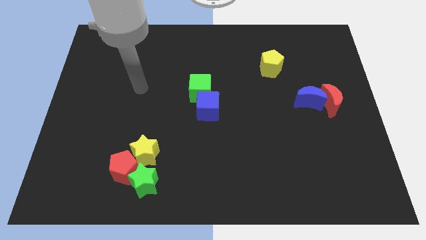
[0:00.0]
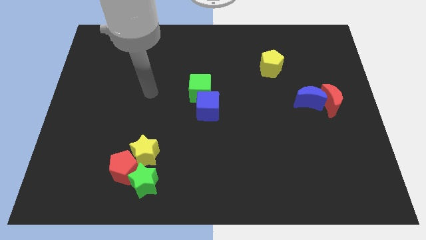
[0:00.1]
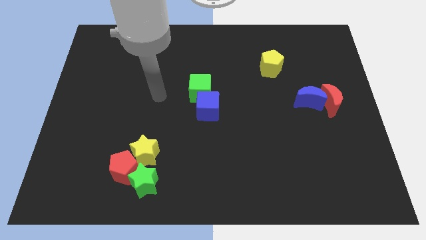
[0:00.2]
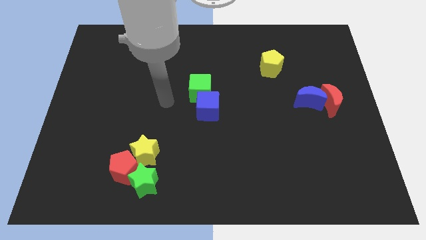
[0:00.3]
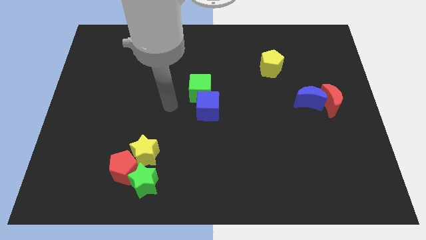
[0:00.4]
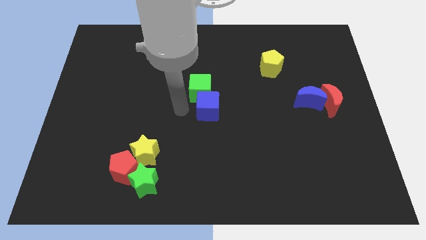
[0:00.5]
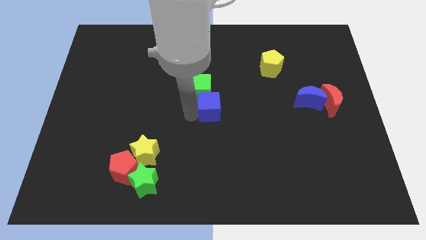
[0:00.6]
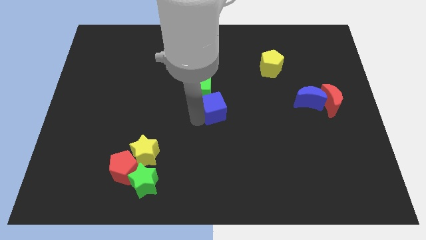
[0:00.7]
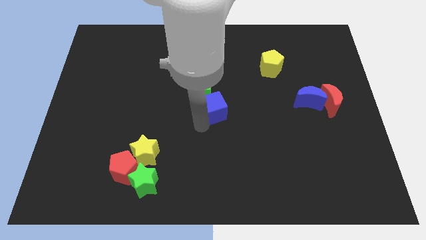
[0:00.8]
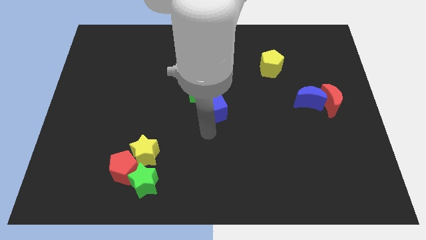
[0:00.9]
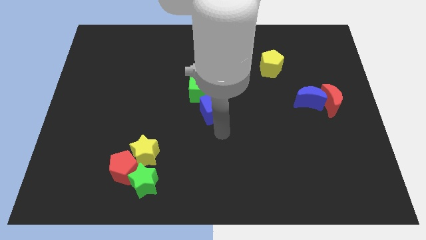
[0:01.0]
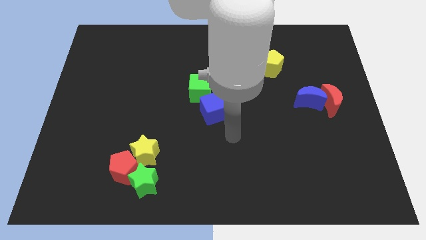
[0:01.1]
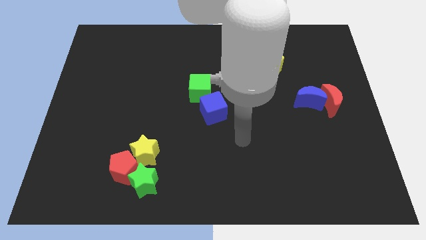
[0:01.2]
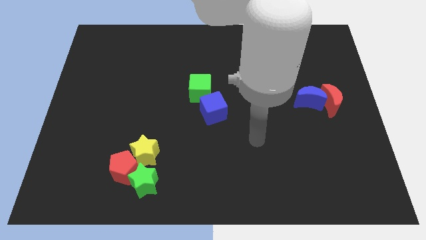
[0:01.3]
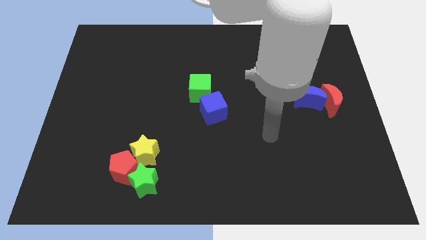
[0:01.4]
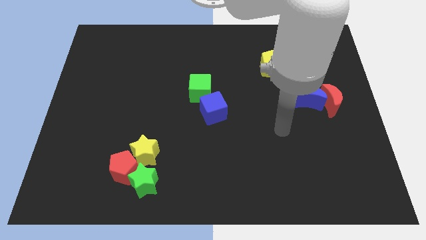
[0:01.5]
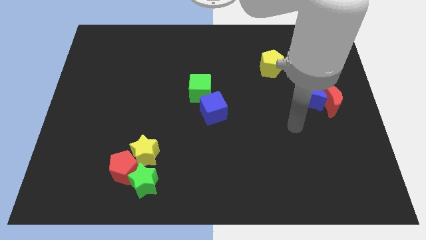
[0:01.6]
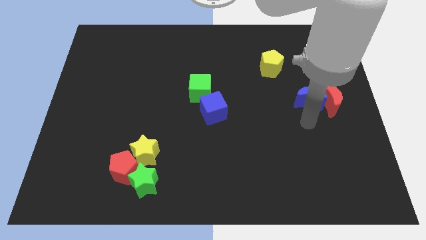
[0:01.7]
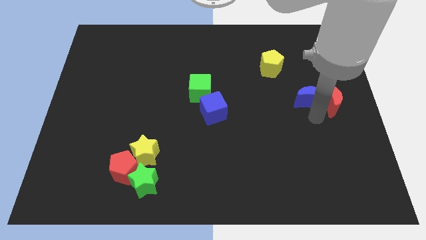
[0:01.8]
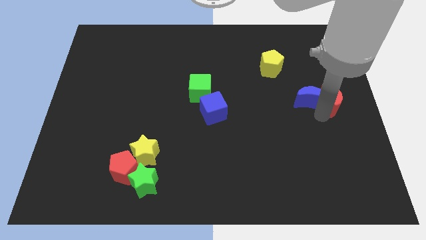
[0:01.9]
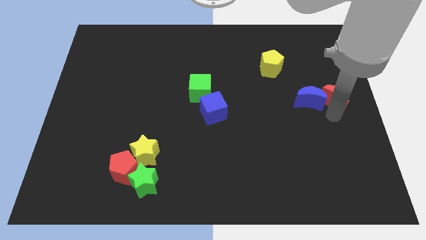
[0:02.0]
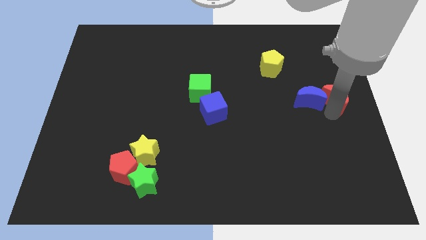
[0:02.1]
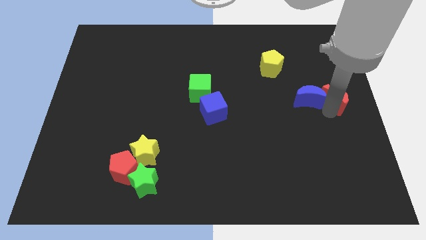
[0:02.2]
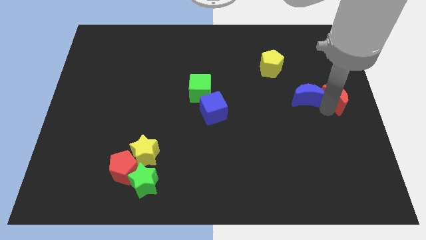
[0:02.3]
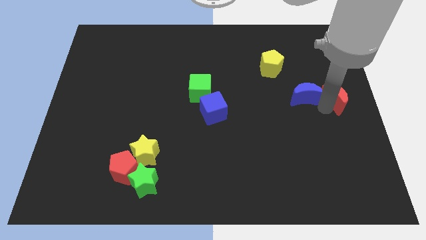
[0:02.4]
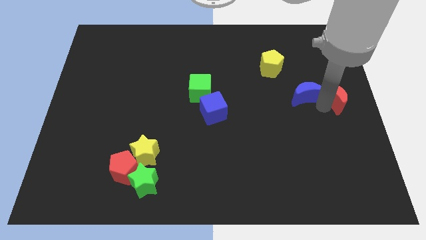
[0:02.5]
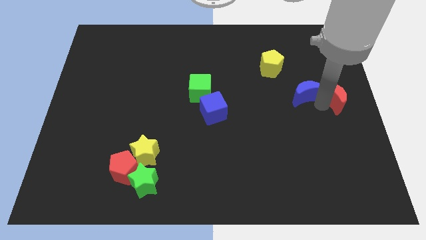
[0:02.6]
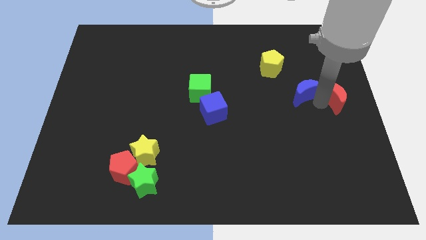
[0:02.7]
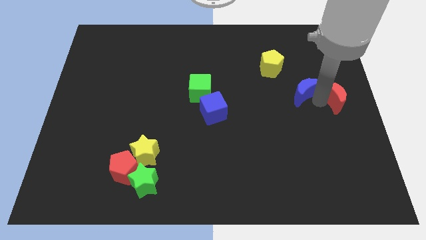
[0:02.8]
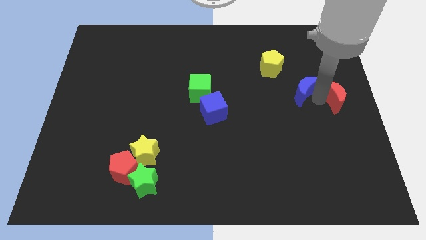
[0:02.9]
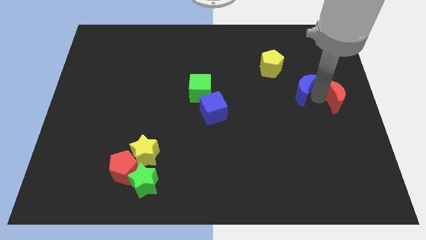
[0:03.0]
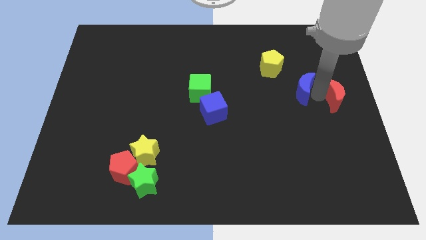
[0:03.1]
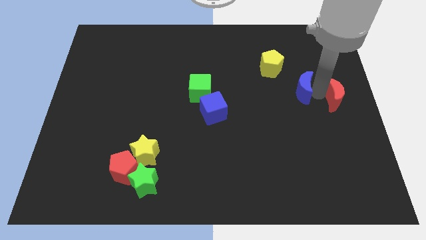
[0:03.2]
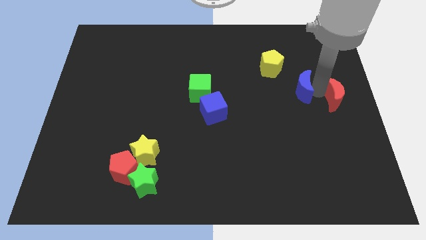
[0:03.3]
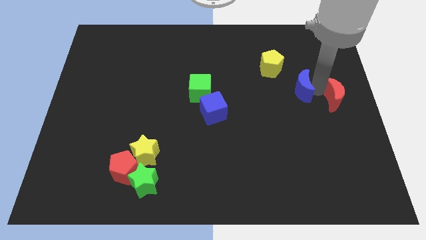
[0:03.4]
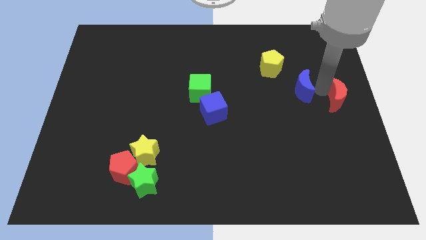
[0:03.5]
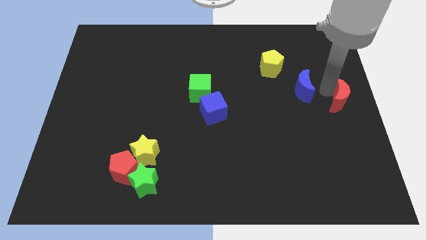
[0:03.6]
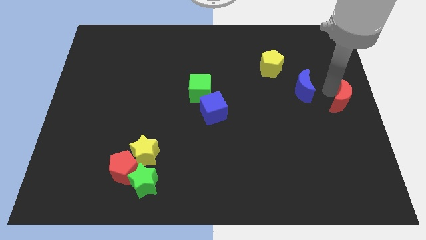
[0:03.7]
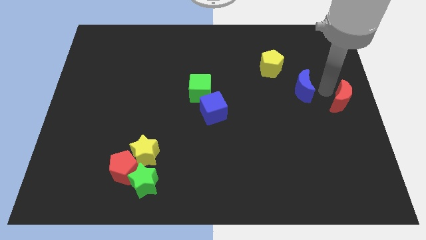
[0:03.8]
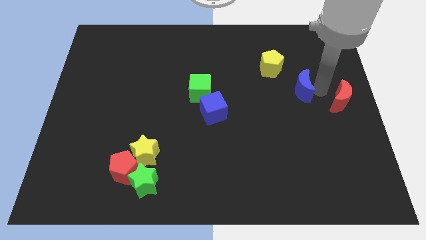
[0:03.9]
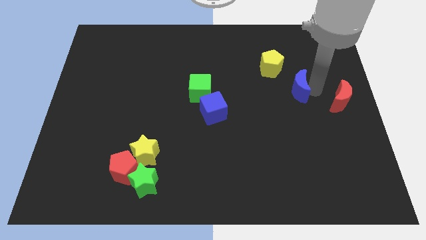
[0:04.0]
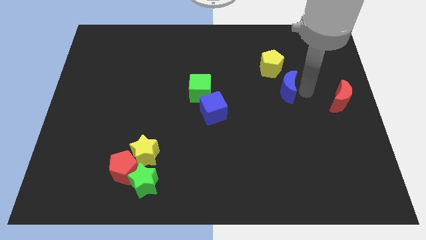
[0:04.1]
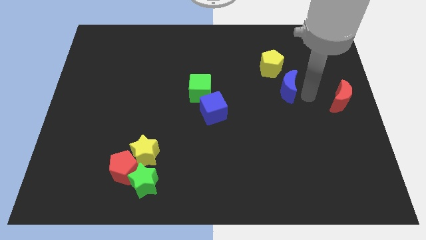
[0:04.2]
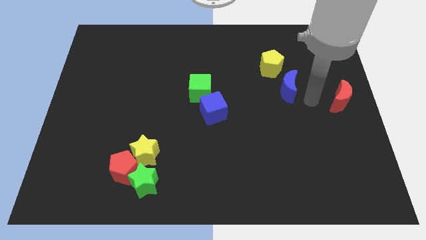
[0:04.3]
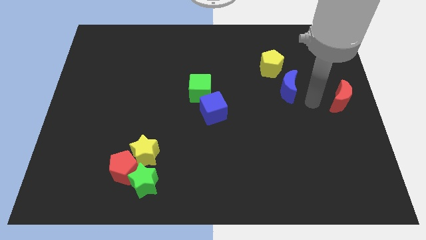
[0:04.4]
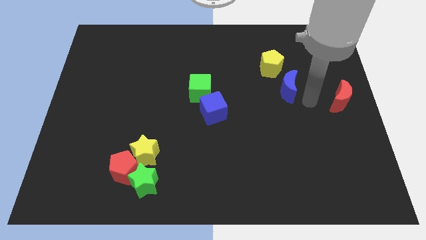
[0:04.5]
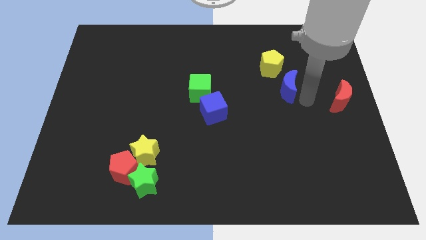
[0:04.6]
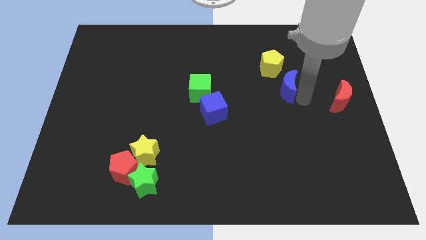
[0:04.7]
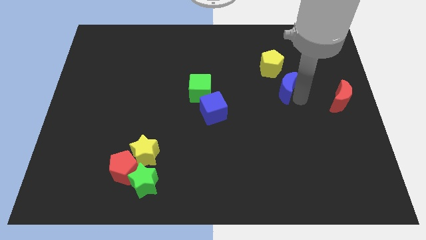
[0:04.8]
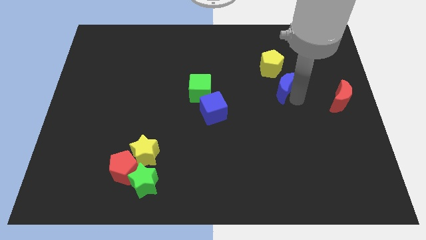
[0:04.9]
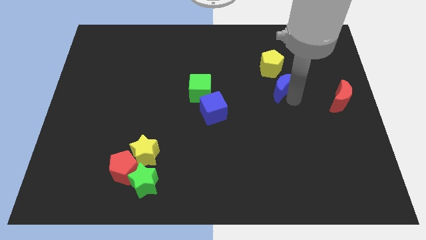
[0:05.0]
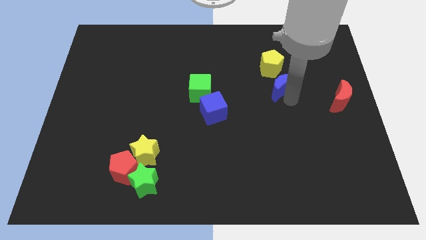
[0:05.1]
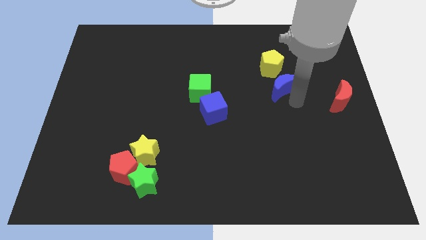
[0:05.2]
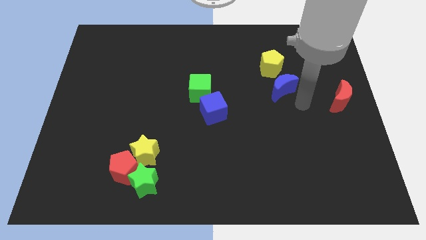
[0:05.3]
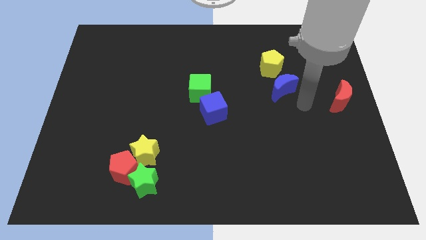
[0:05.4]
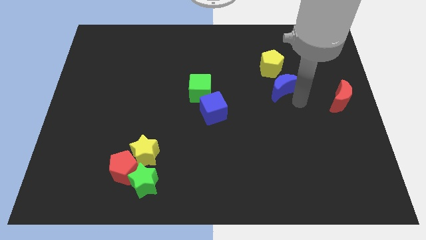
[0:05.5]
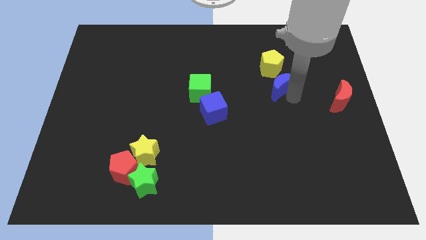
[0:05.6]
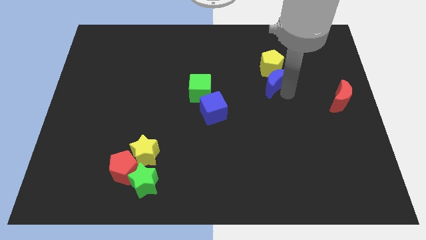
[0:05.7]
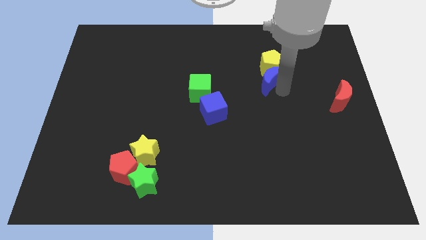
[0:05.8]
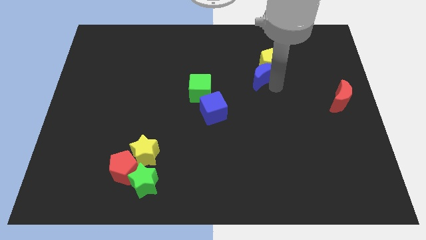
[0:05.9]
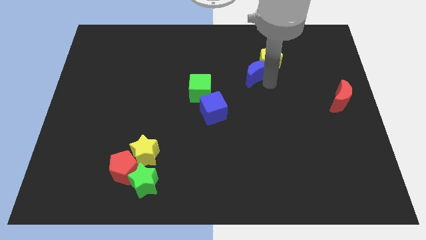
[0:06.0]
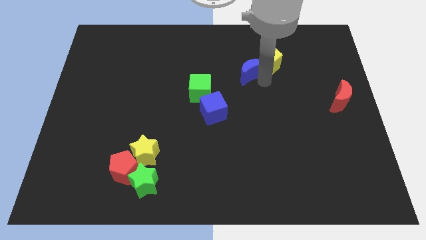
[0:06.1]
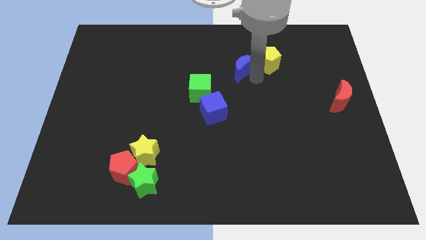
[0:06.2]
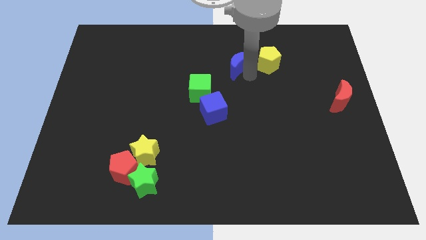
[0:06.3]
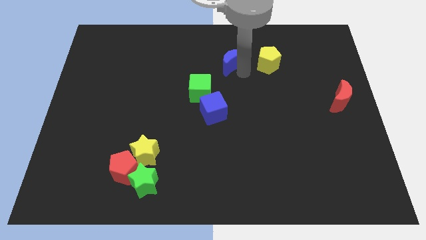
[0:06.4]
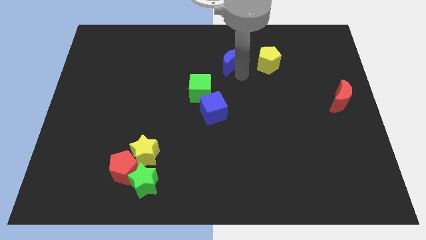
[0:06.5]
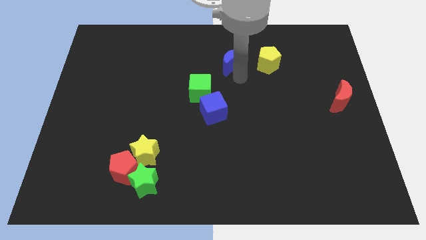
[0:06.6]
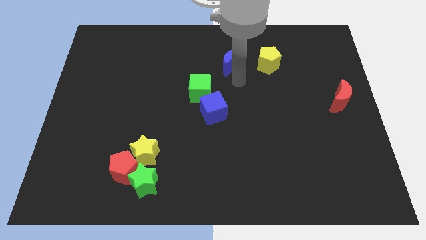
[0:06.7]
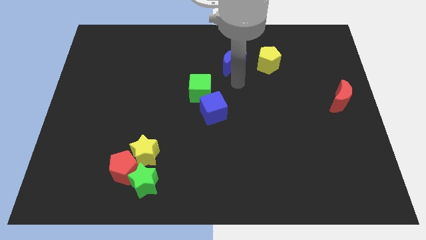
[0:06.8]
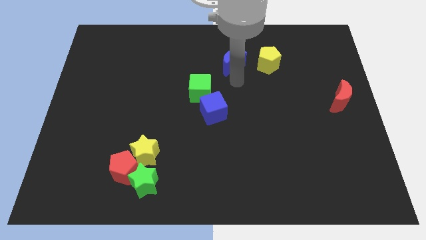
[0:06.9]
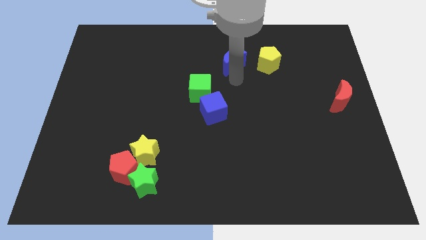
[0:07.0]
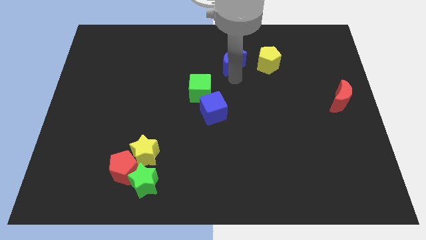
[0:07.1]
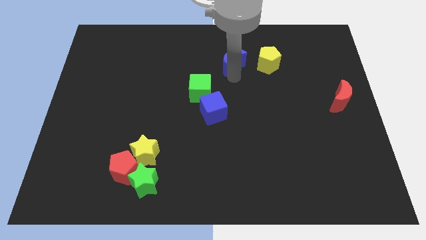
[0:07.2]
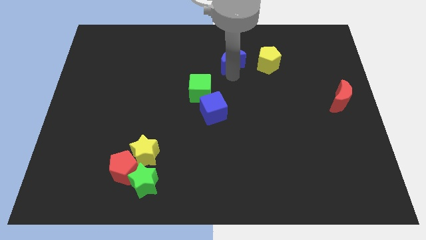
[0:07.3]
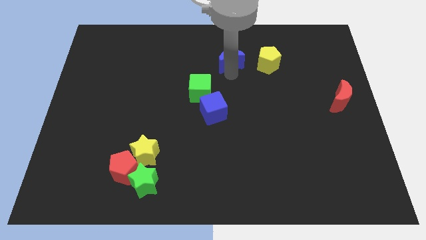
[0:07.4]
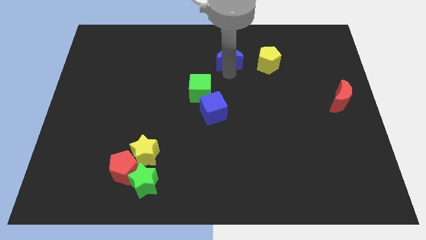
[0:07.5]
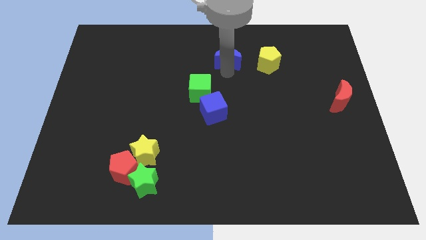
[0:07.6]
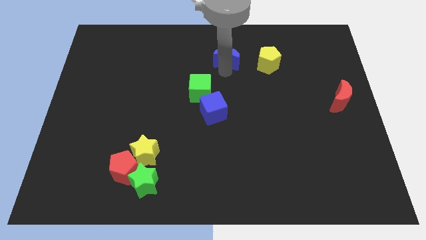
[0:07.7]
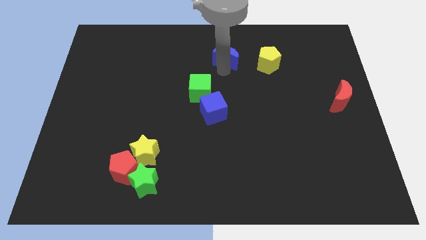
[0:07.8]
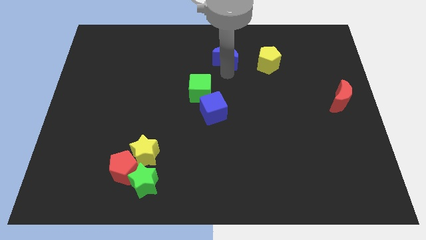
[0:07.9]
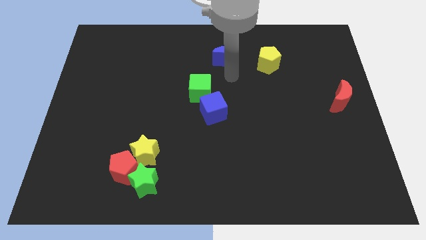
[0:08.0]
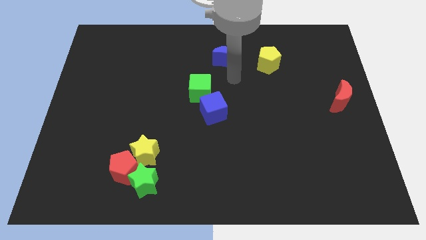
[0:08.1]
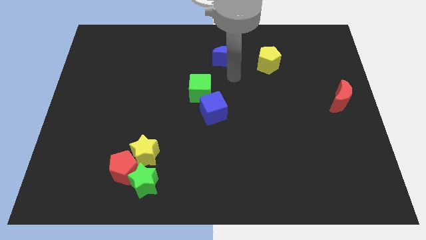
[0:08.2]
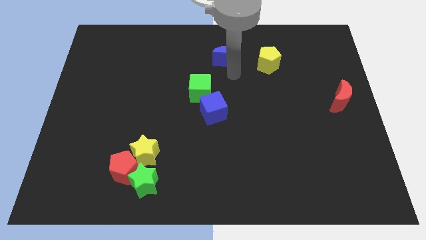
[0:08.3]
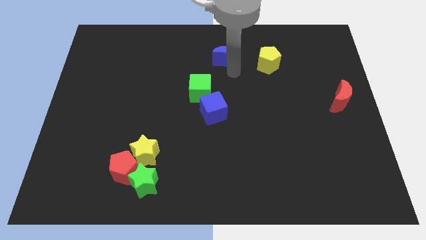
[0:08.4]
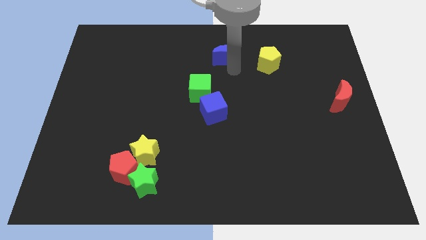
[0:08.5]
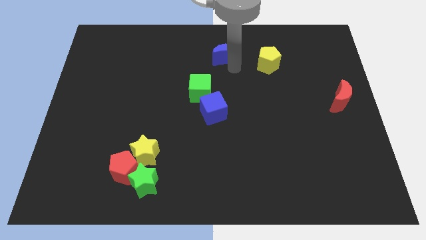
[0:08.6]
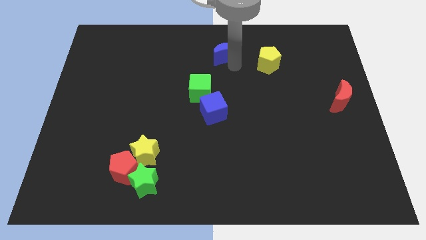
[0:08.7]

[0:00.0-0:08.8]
push the blue moon to the top
